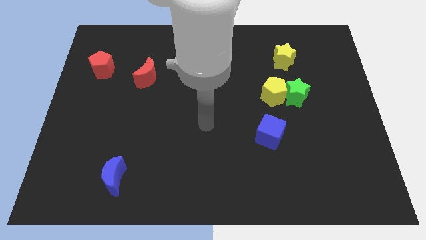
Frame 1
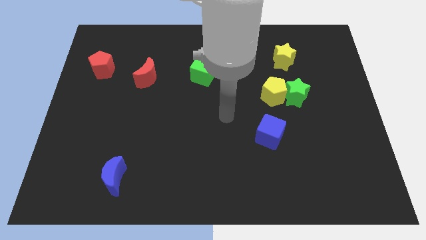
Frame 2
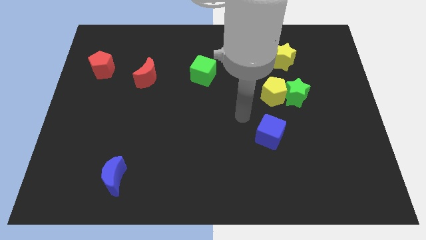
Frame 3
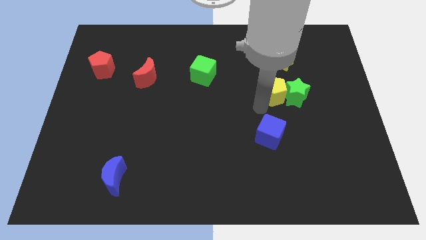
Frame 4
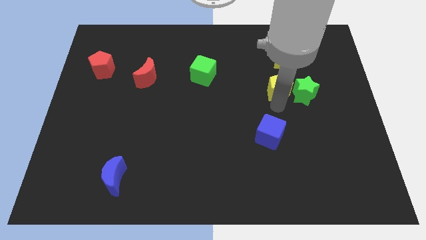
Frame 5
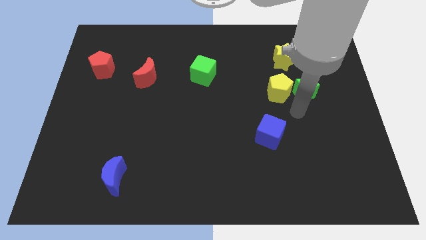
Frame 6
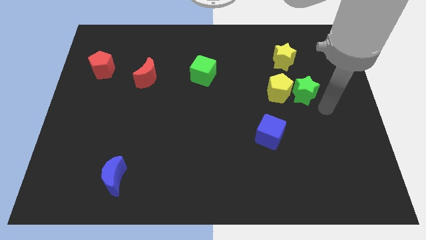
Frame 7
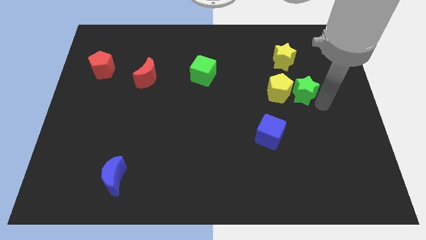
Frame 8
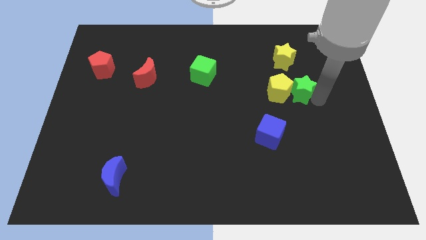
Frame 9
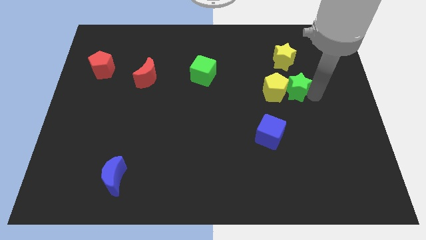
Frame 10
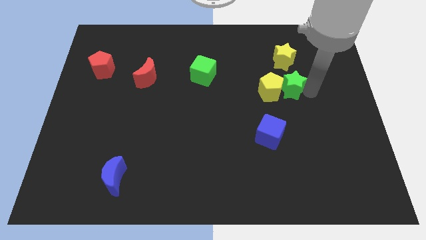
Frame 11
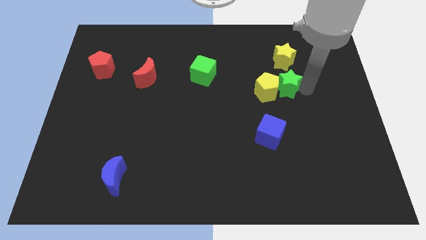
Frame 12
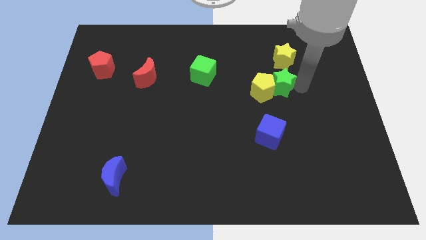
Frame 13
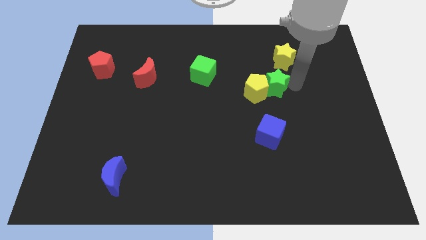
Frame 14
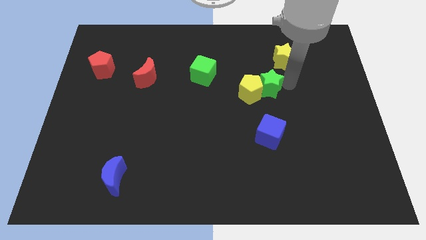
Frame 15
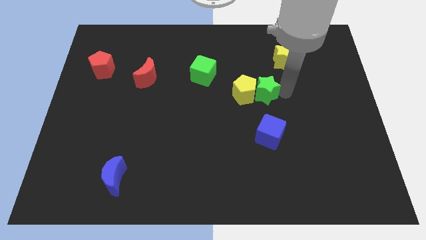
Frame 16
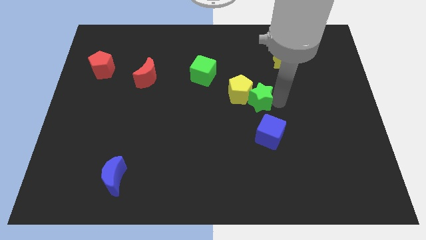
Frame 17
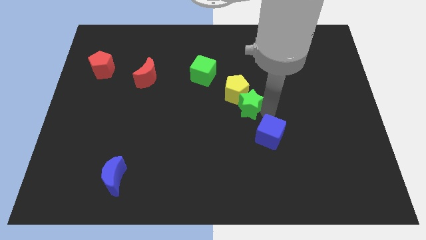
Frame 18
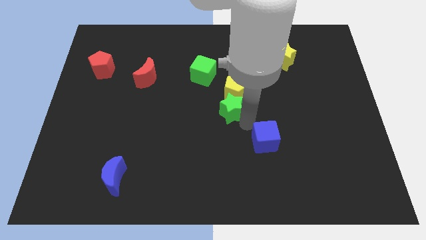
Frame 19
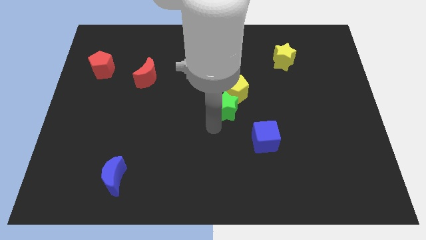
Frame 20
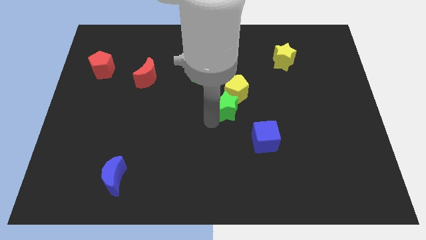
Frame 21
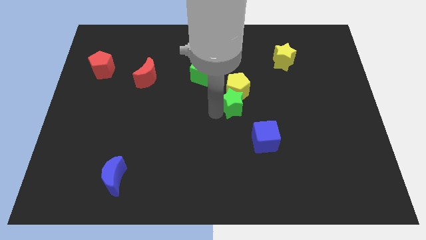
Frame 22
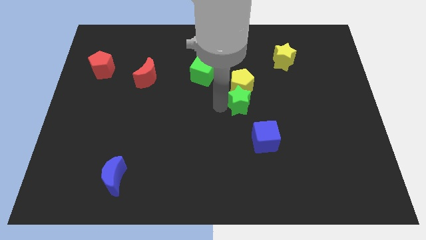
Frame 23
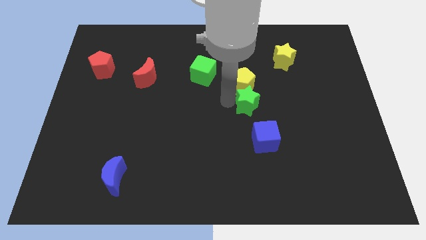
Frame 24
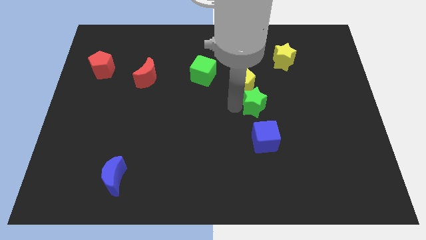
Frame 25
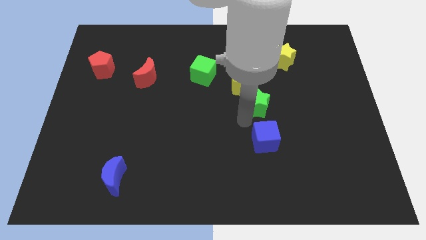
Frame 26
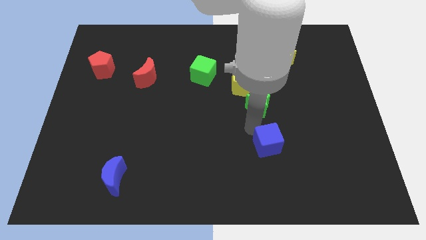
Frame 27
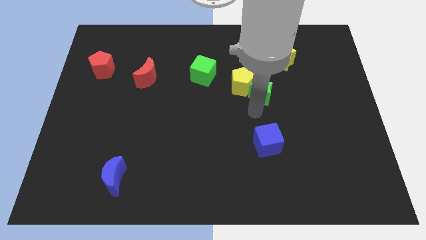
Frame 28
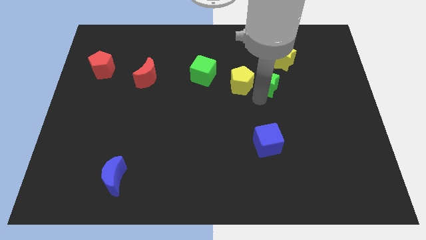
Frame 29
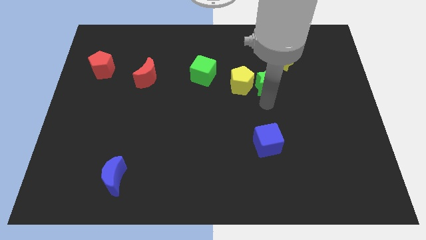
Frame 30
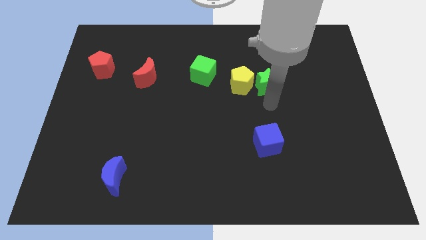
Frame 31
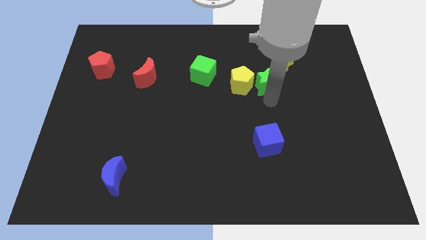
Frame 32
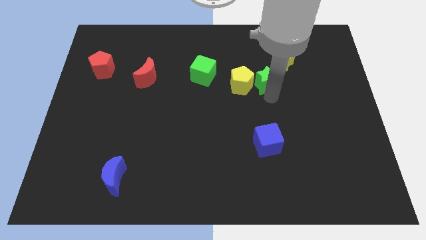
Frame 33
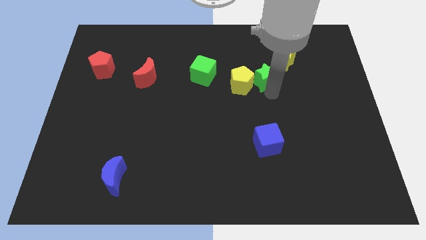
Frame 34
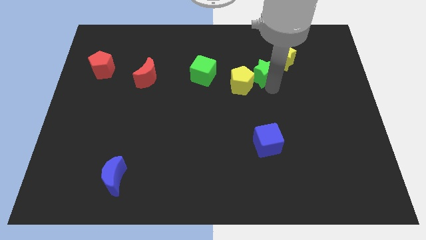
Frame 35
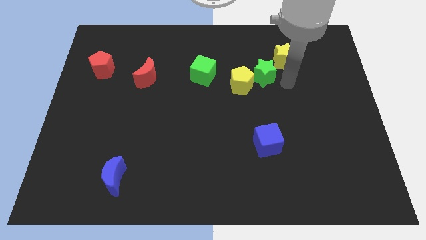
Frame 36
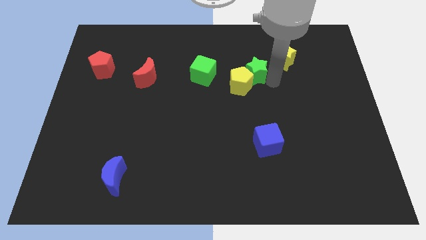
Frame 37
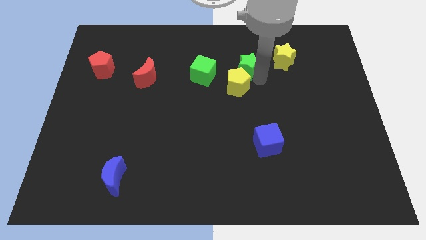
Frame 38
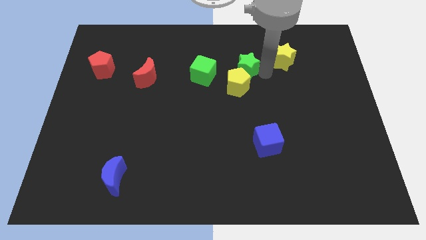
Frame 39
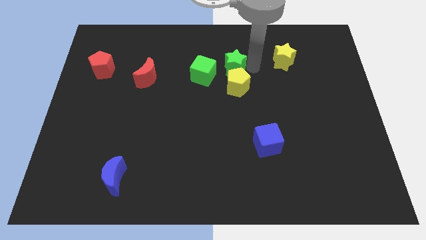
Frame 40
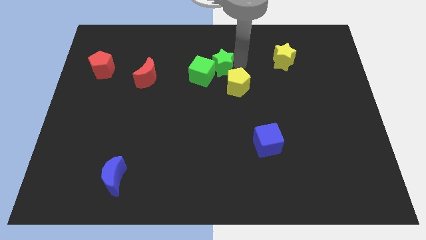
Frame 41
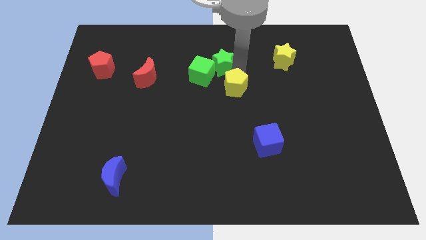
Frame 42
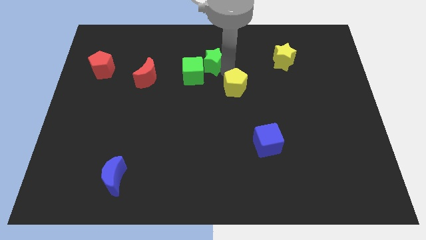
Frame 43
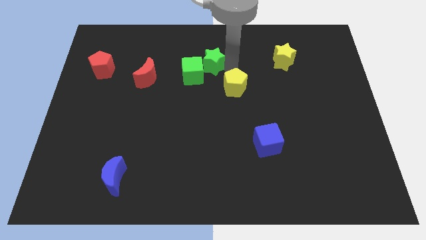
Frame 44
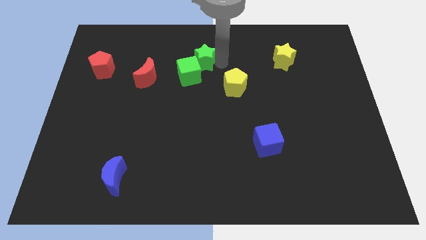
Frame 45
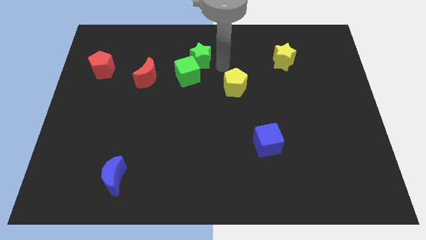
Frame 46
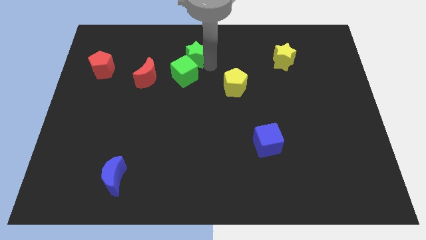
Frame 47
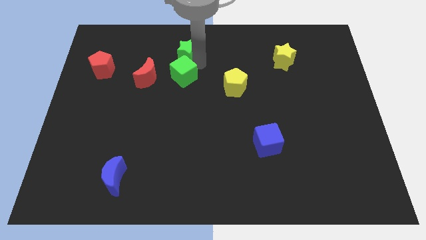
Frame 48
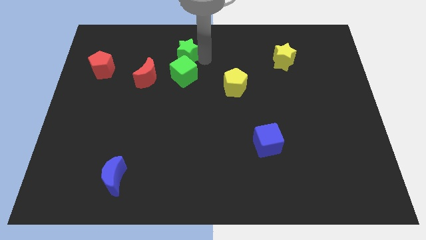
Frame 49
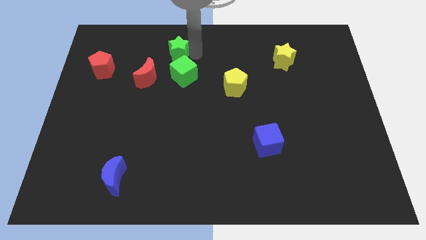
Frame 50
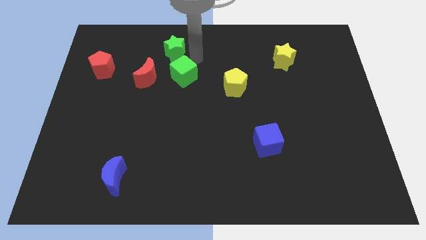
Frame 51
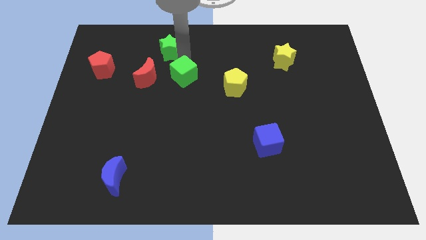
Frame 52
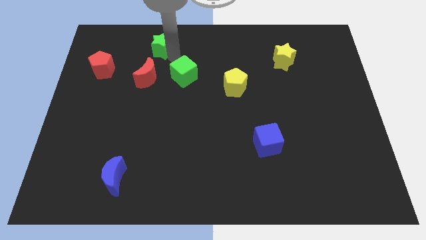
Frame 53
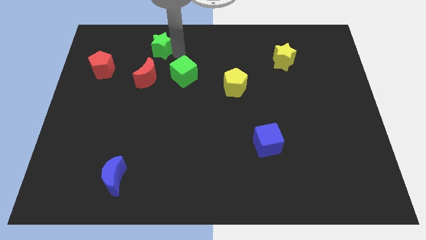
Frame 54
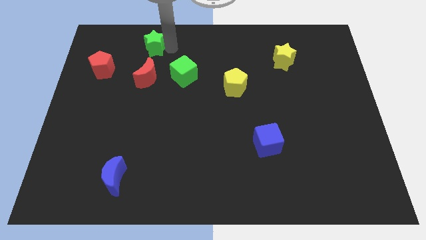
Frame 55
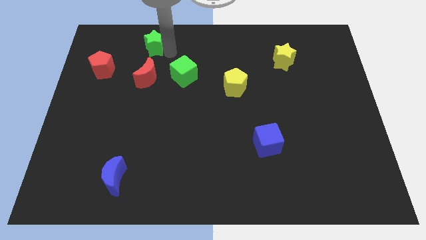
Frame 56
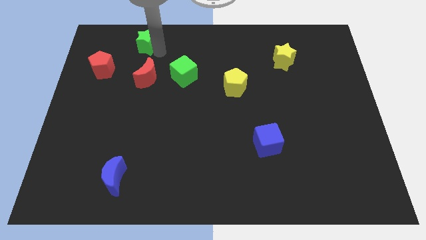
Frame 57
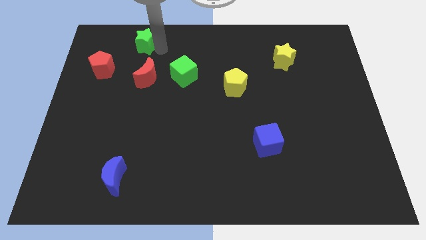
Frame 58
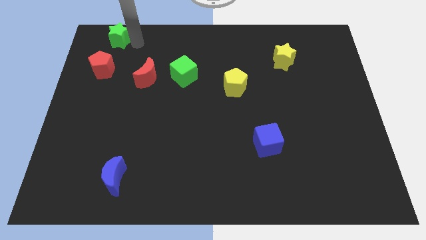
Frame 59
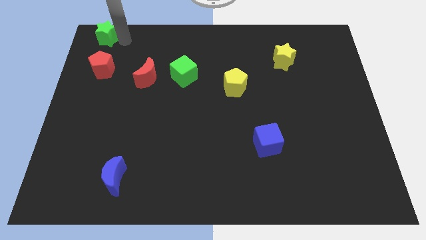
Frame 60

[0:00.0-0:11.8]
push the green star to the top left corner
